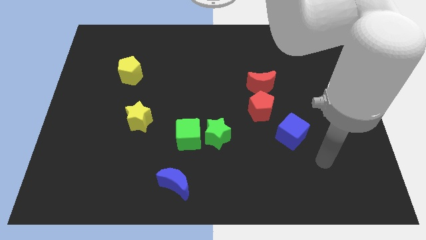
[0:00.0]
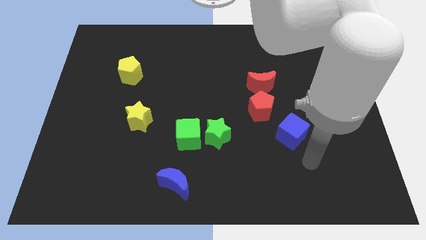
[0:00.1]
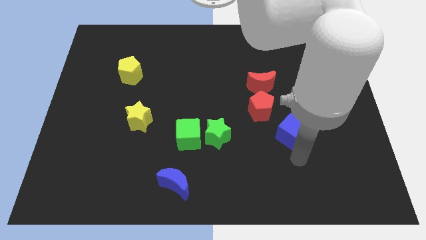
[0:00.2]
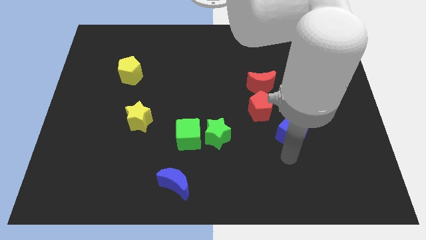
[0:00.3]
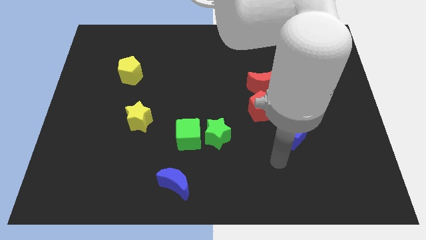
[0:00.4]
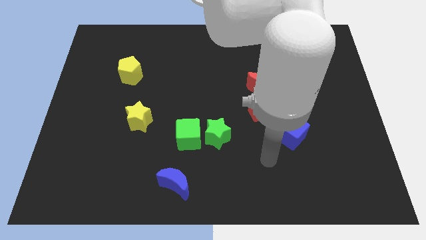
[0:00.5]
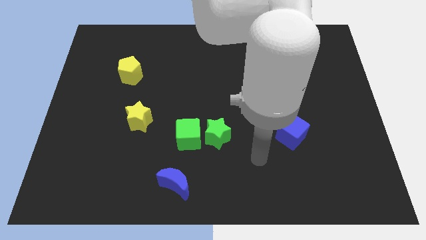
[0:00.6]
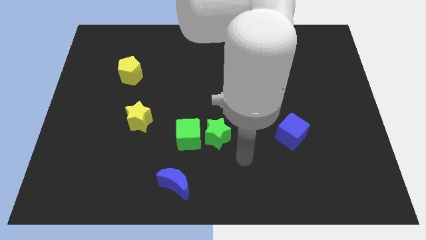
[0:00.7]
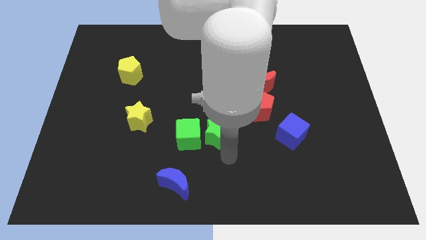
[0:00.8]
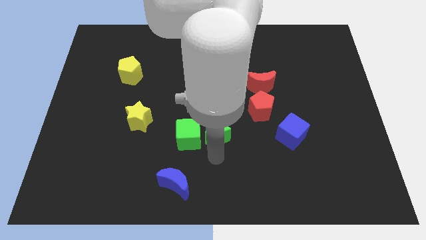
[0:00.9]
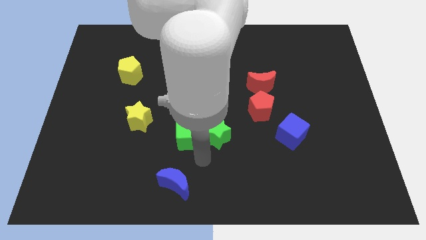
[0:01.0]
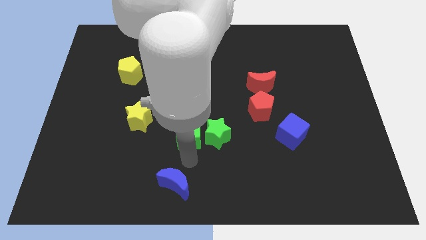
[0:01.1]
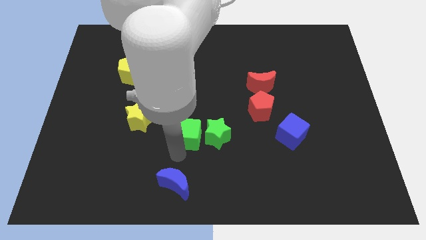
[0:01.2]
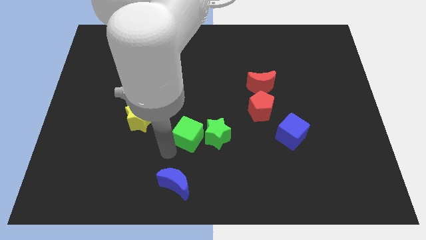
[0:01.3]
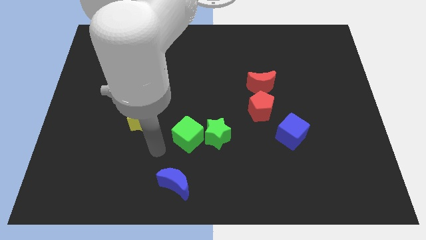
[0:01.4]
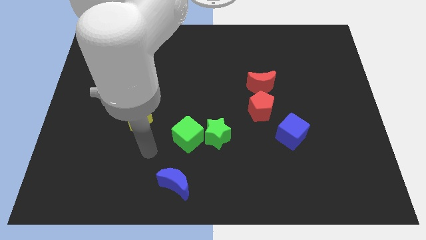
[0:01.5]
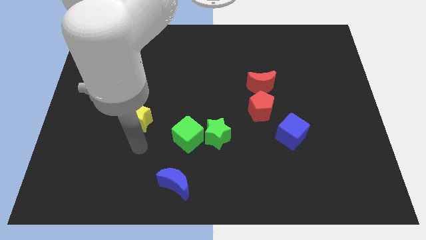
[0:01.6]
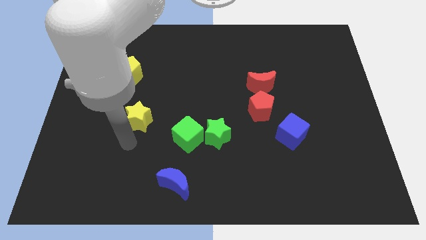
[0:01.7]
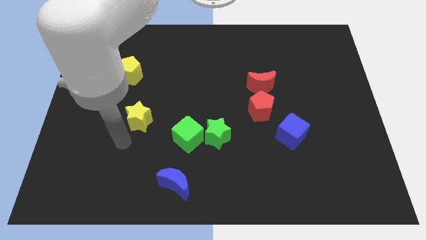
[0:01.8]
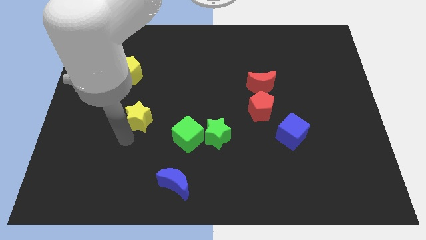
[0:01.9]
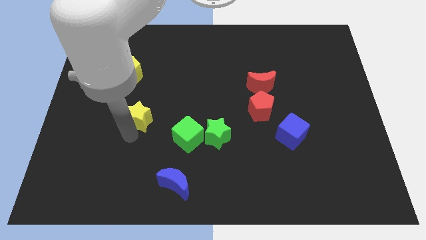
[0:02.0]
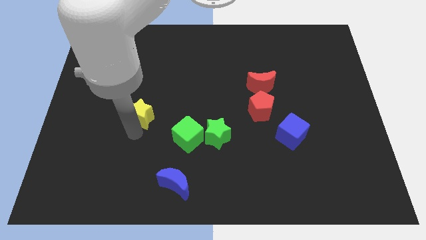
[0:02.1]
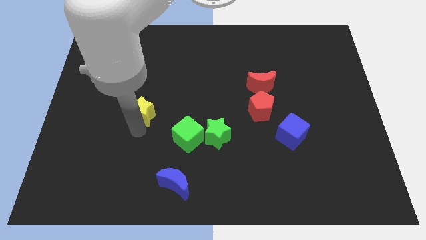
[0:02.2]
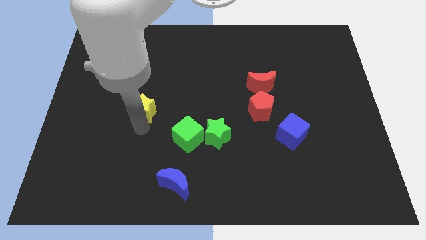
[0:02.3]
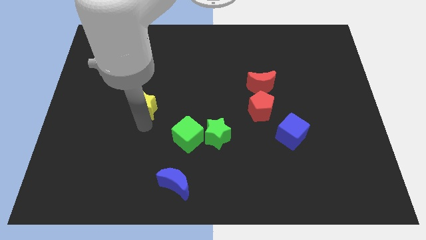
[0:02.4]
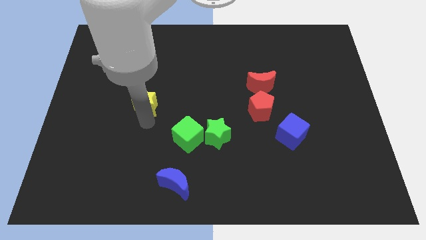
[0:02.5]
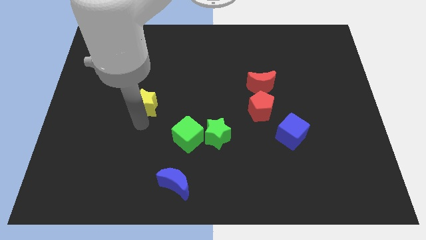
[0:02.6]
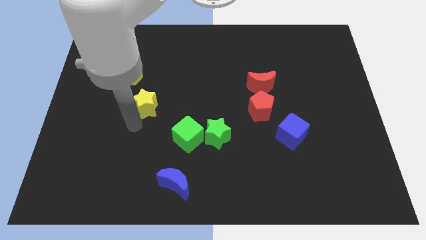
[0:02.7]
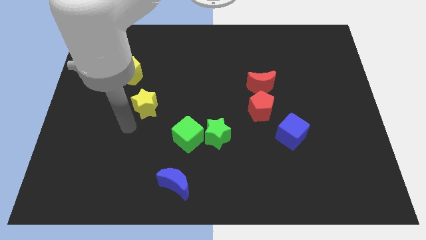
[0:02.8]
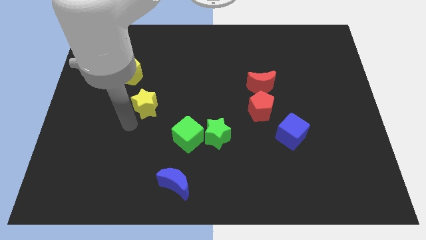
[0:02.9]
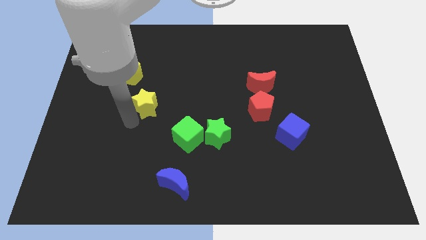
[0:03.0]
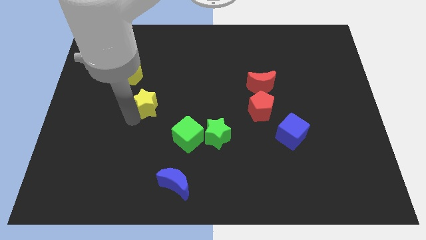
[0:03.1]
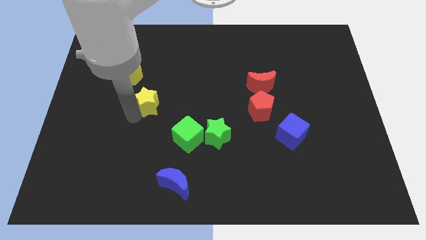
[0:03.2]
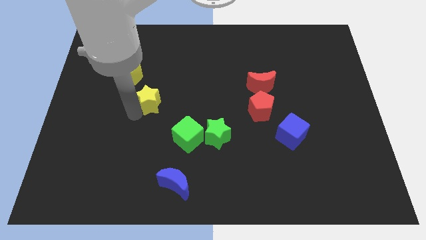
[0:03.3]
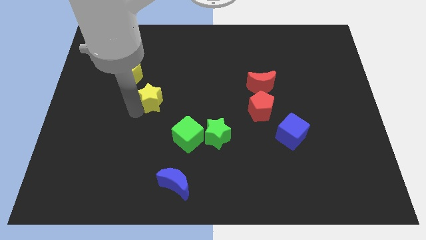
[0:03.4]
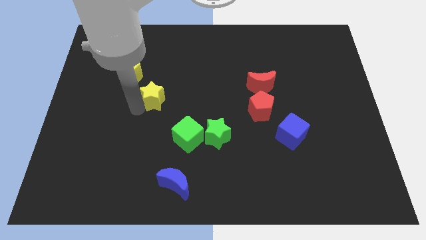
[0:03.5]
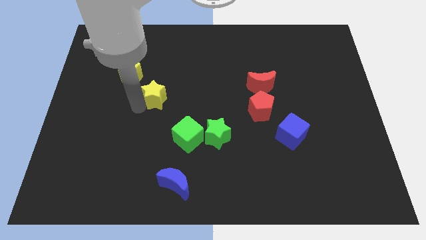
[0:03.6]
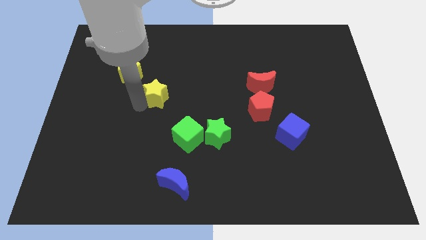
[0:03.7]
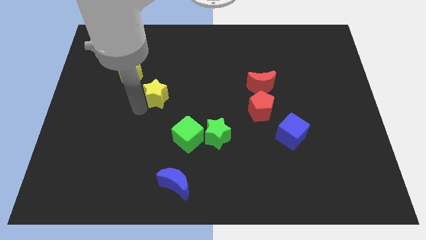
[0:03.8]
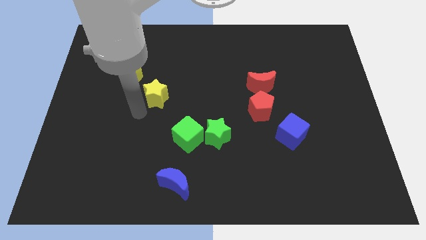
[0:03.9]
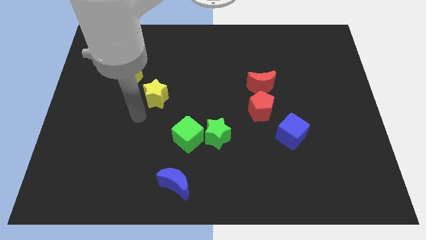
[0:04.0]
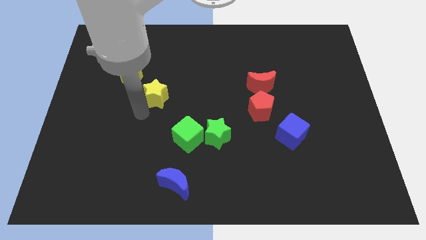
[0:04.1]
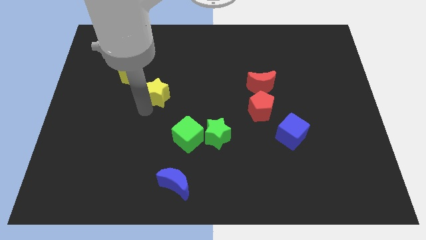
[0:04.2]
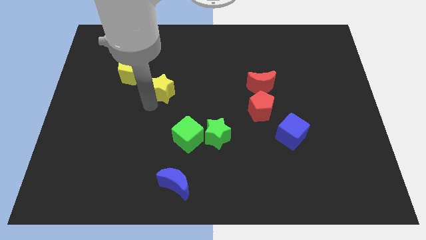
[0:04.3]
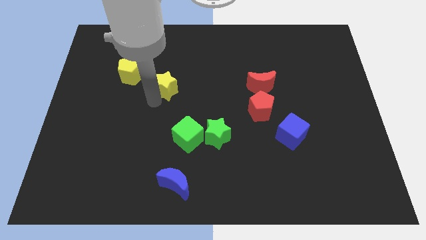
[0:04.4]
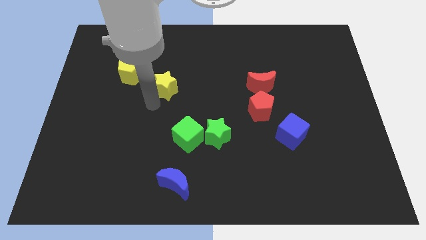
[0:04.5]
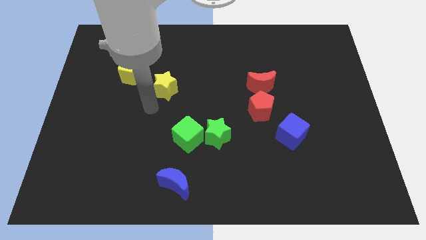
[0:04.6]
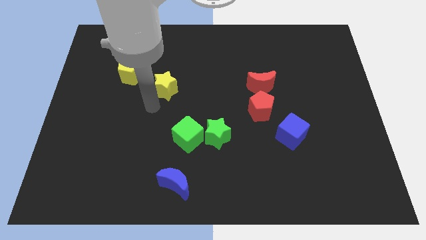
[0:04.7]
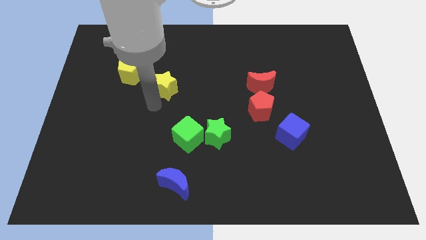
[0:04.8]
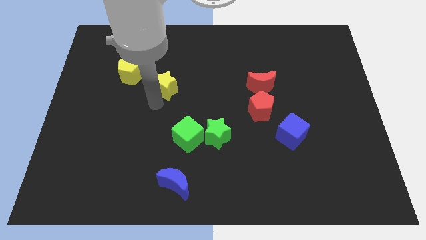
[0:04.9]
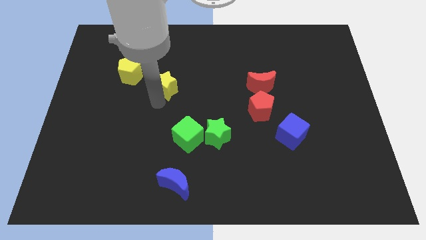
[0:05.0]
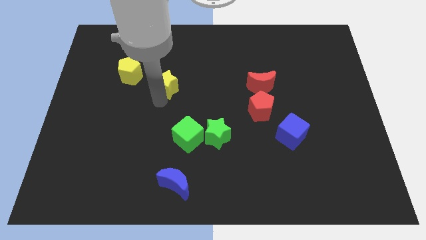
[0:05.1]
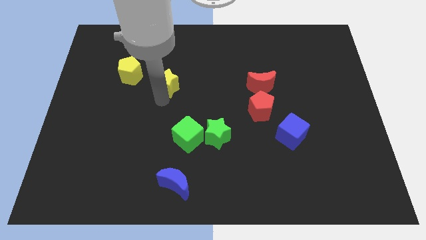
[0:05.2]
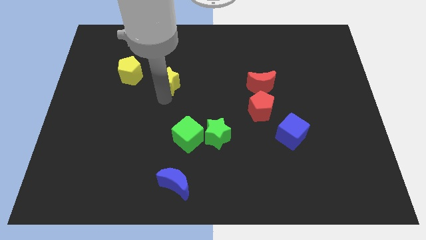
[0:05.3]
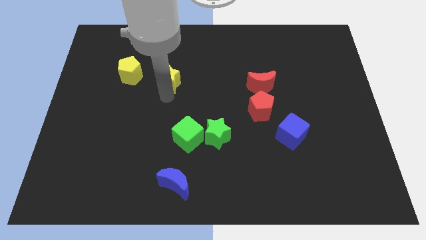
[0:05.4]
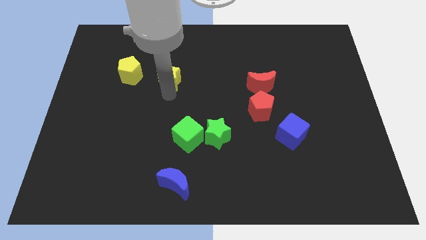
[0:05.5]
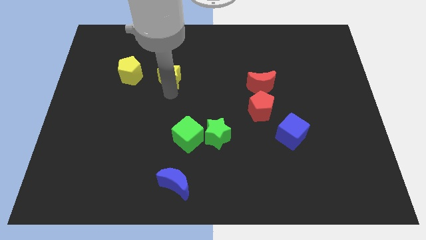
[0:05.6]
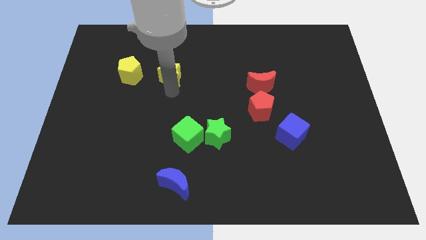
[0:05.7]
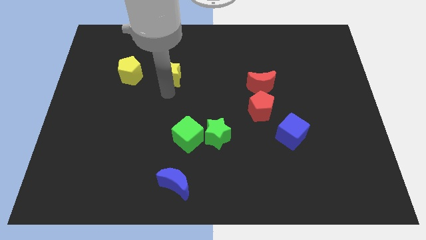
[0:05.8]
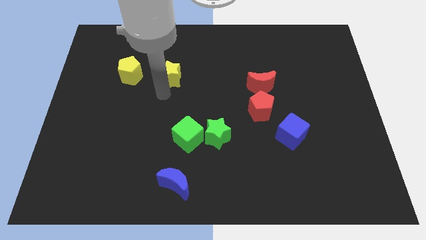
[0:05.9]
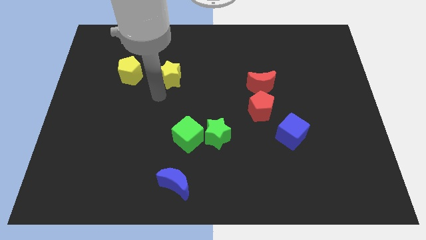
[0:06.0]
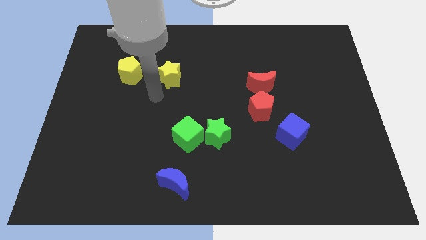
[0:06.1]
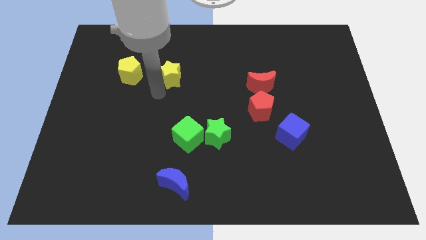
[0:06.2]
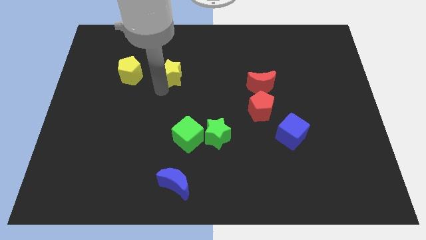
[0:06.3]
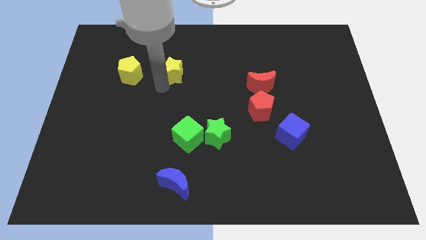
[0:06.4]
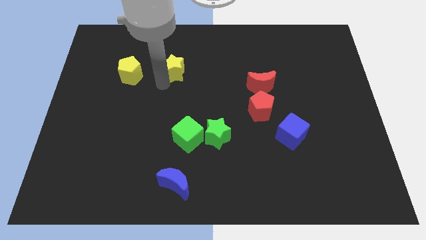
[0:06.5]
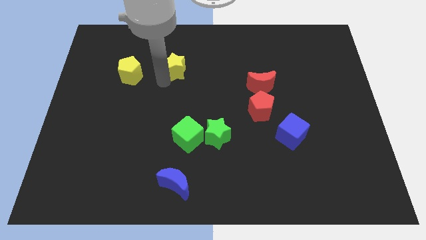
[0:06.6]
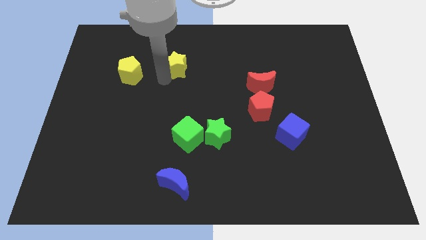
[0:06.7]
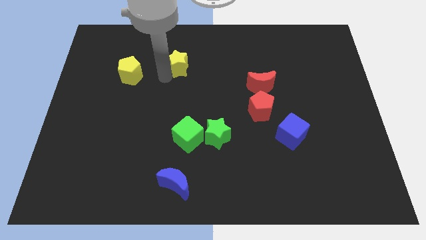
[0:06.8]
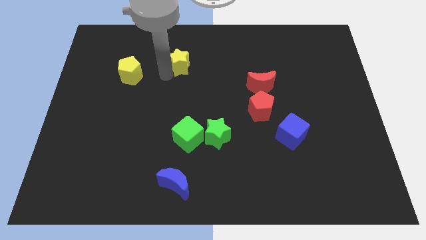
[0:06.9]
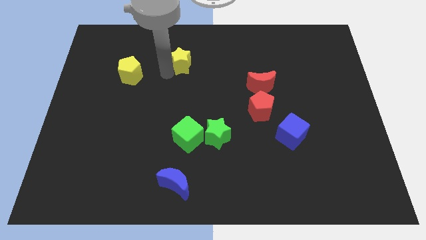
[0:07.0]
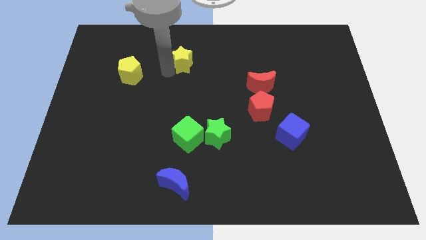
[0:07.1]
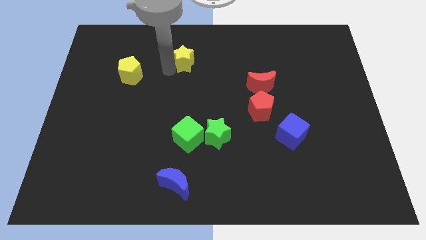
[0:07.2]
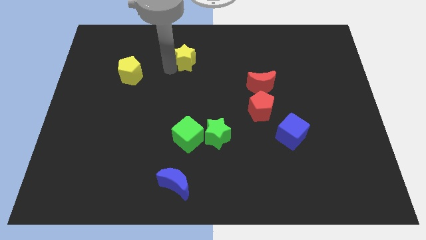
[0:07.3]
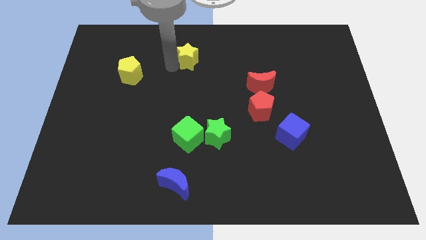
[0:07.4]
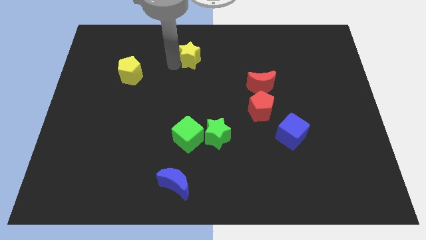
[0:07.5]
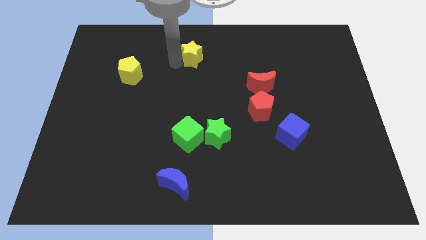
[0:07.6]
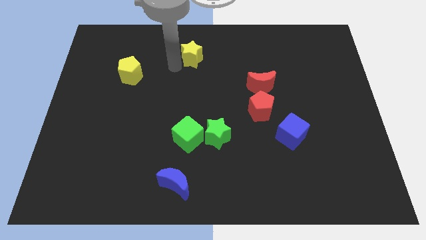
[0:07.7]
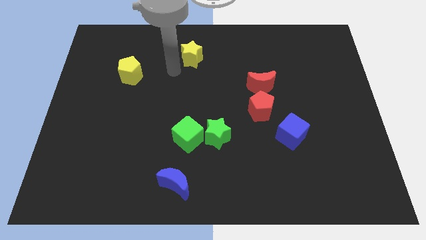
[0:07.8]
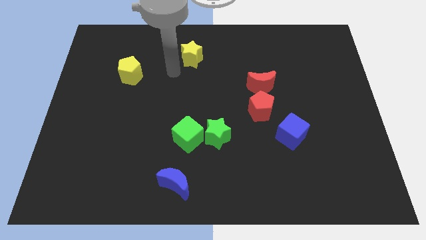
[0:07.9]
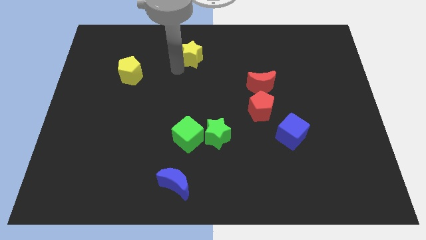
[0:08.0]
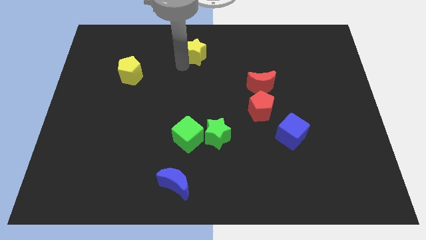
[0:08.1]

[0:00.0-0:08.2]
move the yellow star to the towards your base
